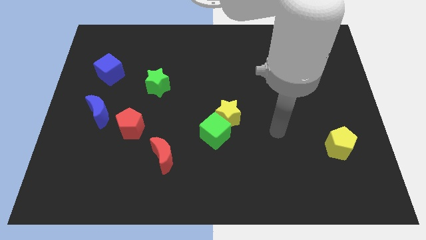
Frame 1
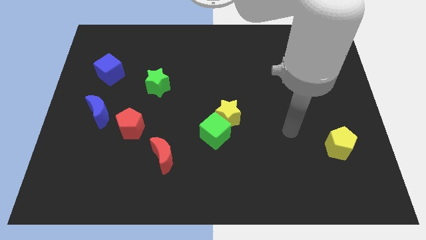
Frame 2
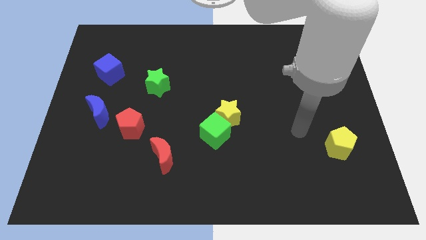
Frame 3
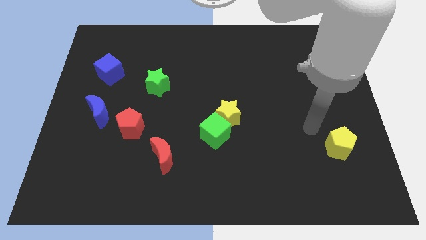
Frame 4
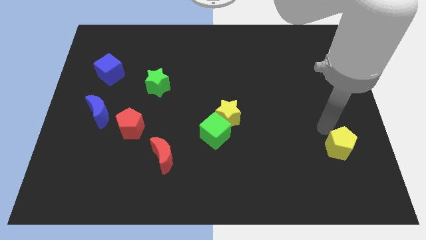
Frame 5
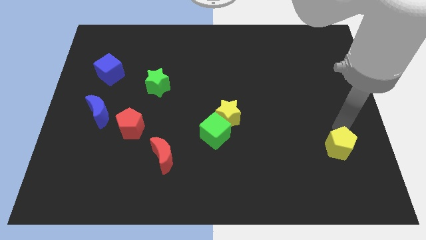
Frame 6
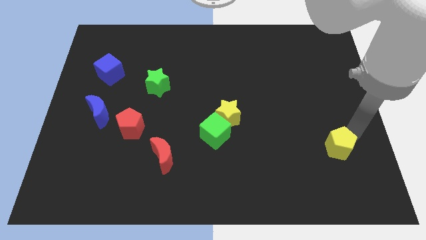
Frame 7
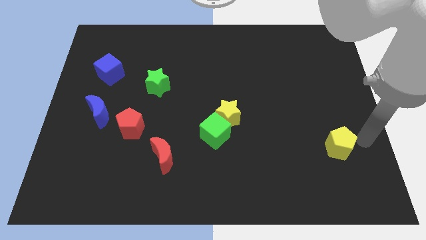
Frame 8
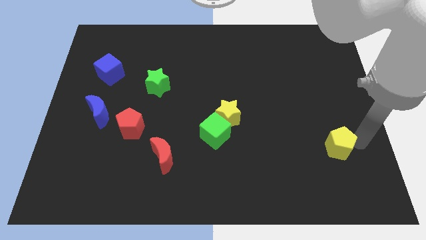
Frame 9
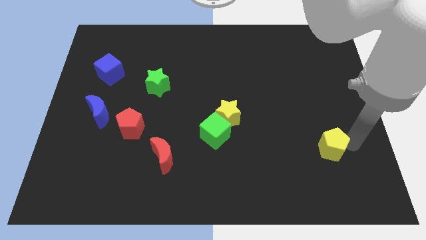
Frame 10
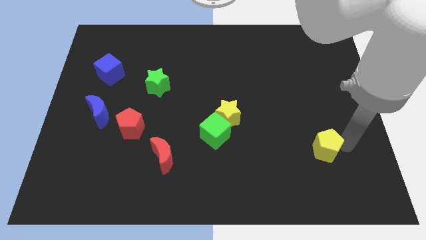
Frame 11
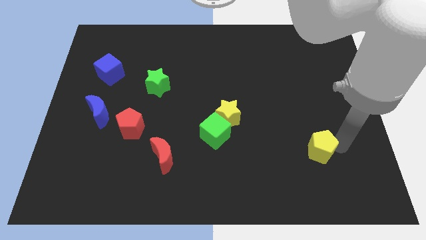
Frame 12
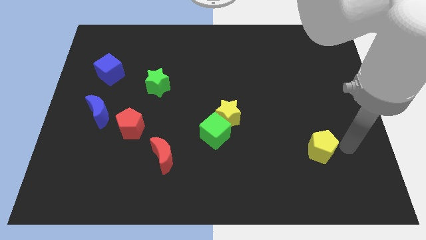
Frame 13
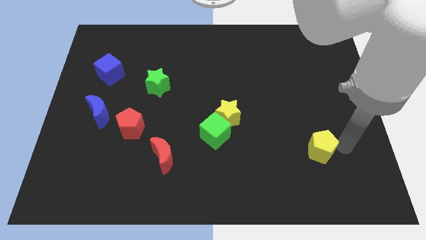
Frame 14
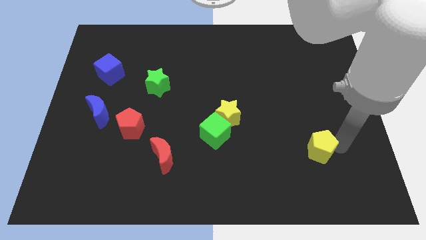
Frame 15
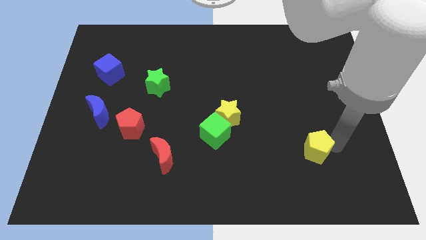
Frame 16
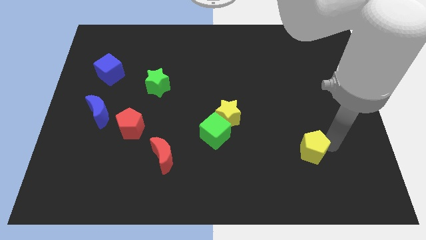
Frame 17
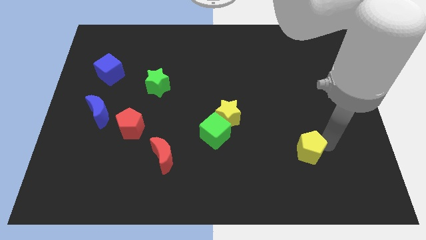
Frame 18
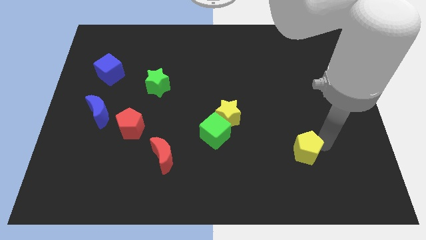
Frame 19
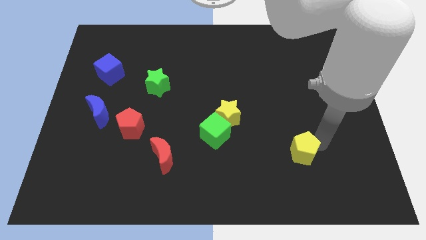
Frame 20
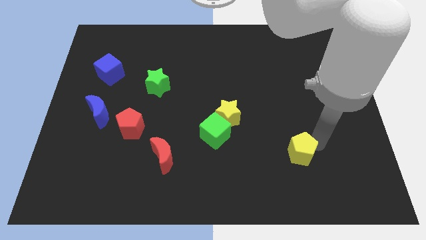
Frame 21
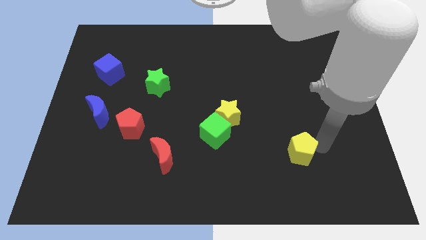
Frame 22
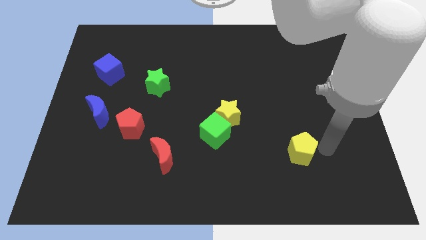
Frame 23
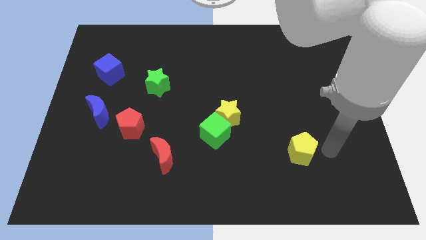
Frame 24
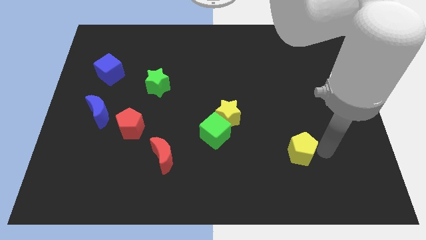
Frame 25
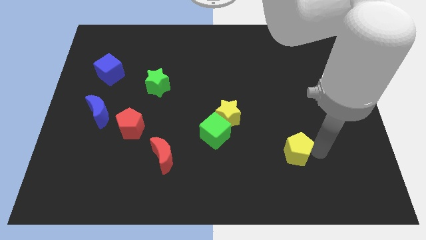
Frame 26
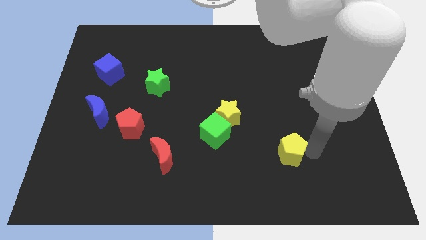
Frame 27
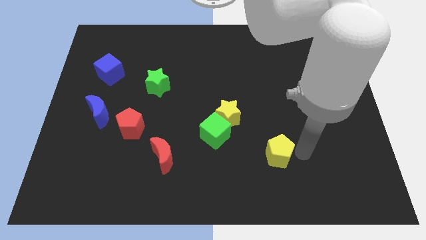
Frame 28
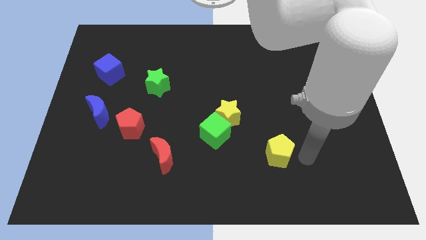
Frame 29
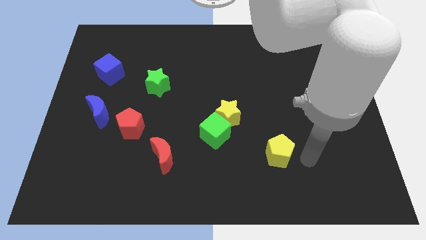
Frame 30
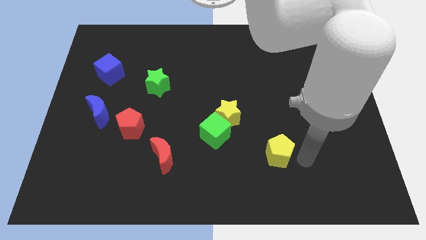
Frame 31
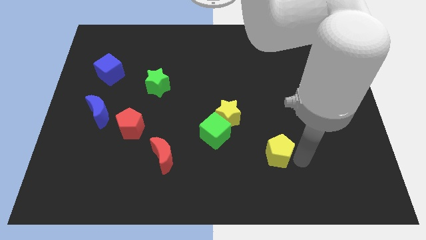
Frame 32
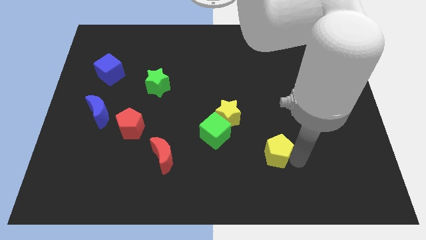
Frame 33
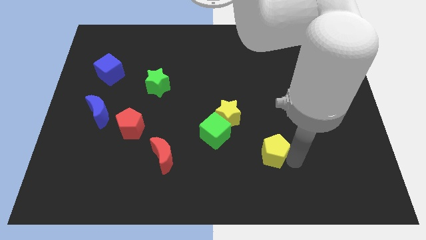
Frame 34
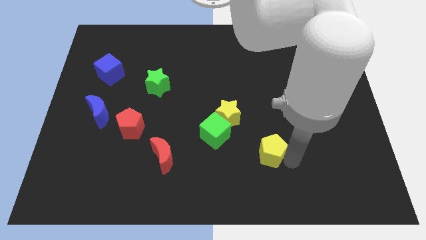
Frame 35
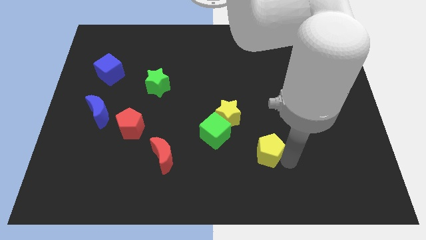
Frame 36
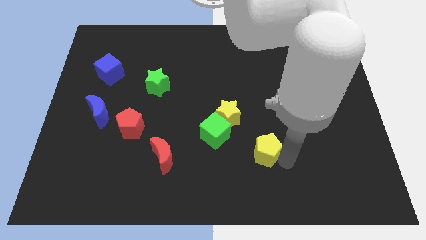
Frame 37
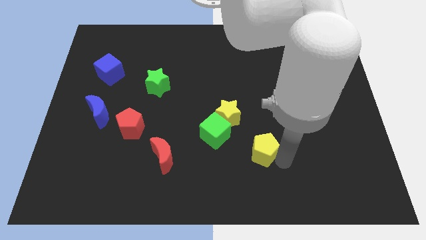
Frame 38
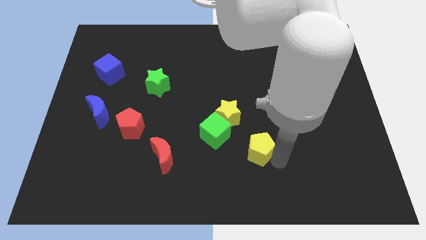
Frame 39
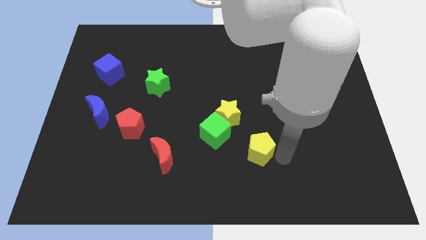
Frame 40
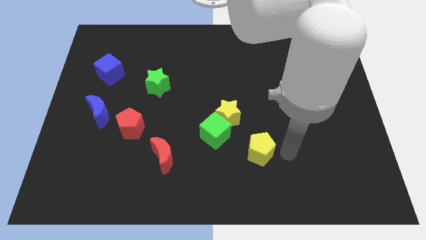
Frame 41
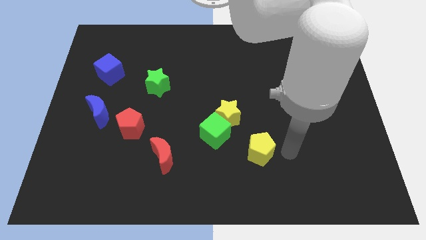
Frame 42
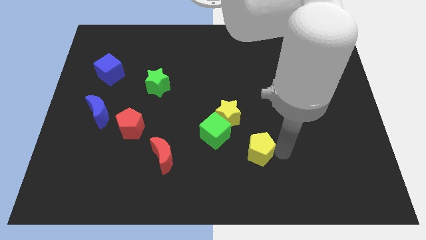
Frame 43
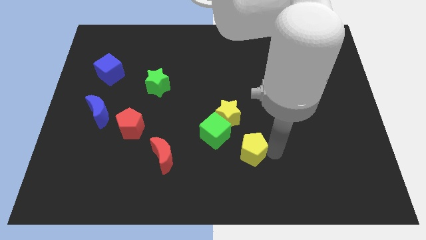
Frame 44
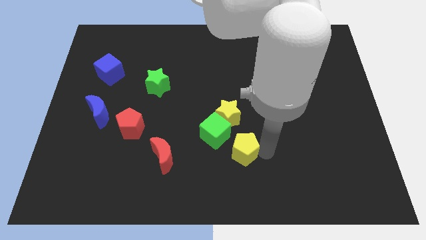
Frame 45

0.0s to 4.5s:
push the yellow pentagon left

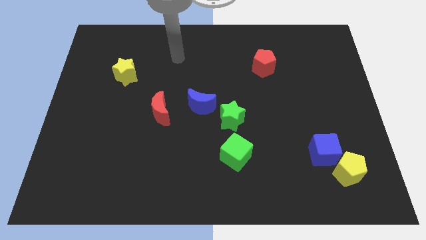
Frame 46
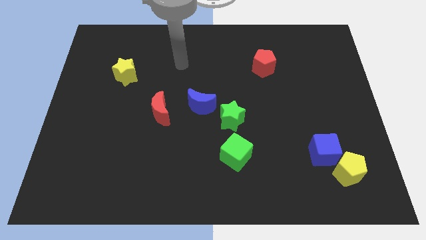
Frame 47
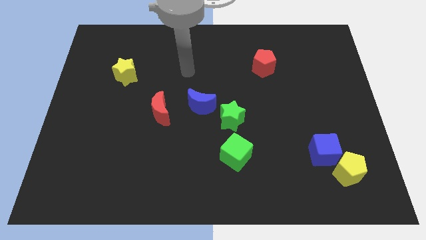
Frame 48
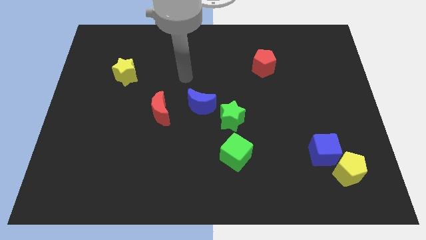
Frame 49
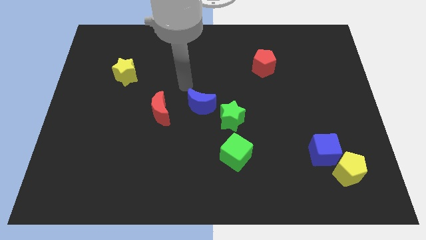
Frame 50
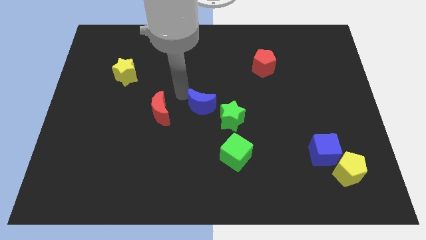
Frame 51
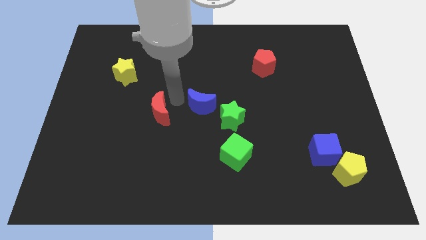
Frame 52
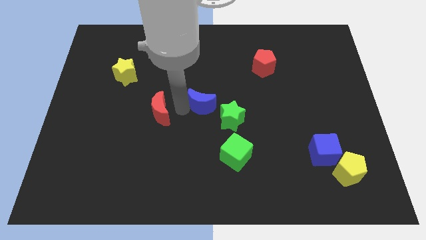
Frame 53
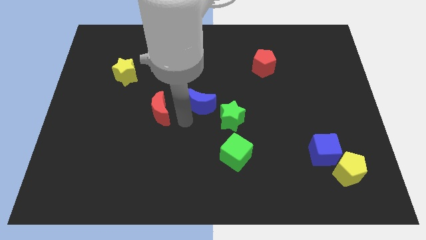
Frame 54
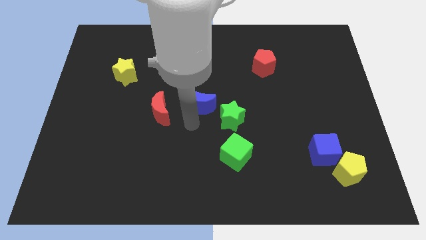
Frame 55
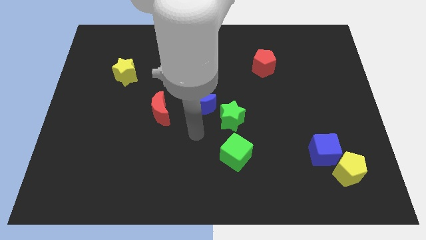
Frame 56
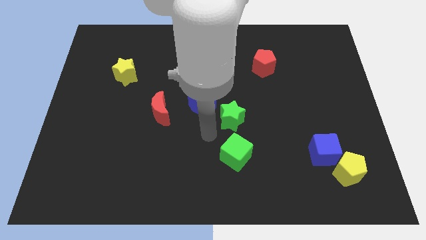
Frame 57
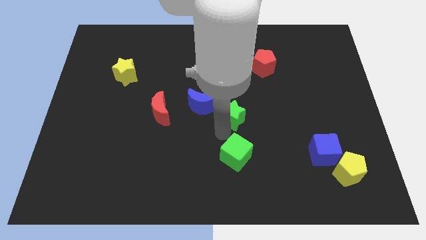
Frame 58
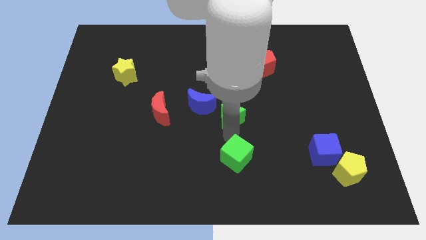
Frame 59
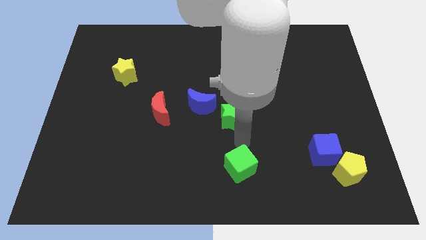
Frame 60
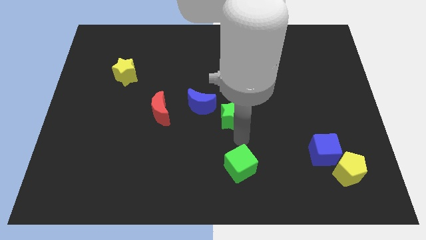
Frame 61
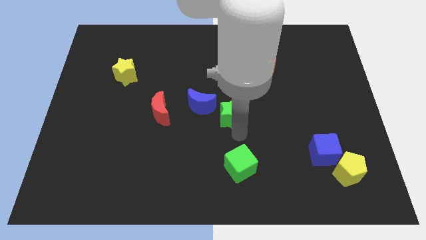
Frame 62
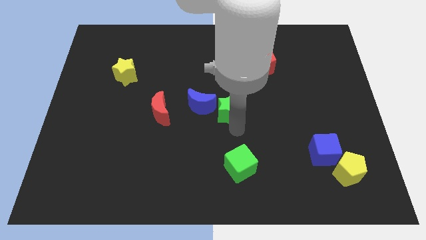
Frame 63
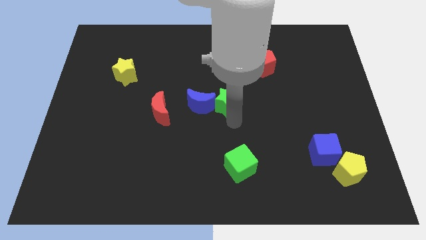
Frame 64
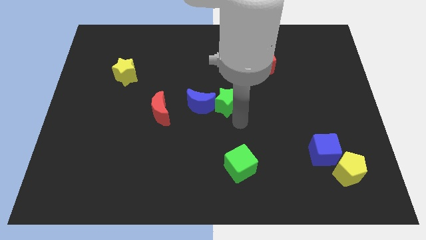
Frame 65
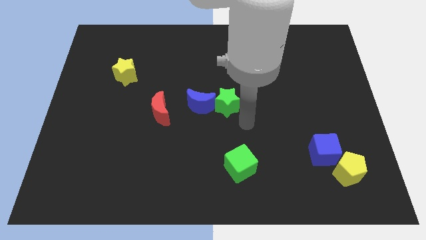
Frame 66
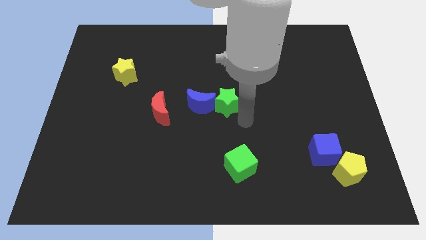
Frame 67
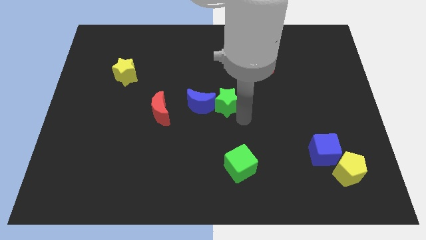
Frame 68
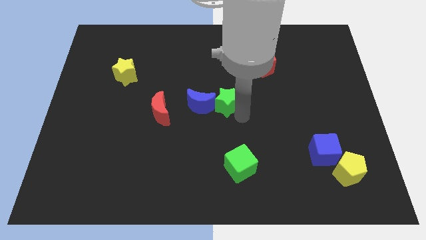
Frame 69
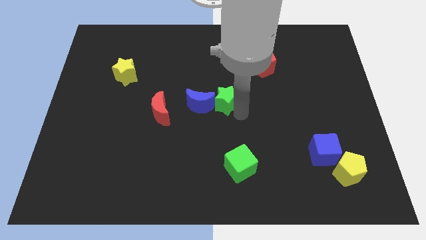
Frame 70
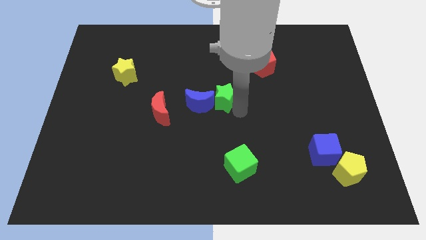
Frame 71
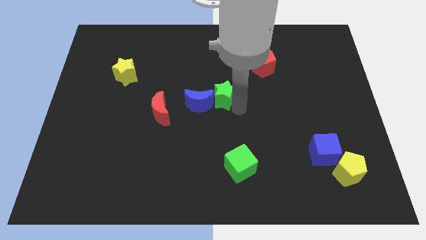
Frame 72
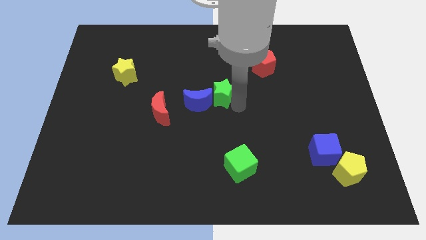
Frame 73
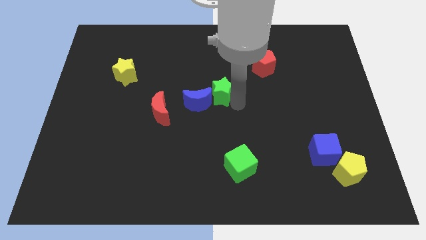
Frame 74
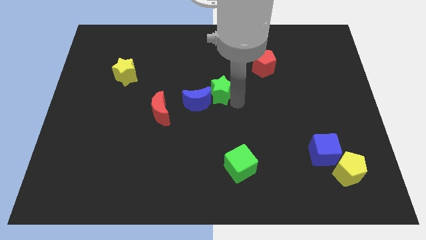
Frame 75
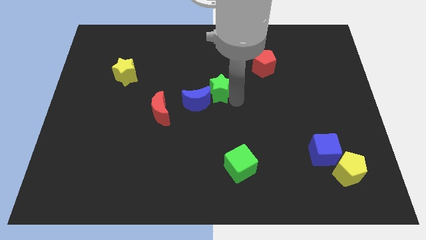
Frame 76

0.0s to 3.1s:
move the green star slightly diagonally up and left

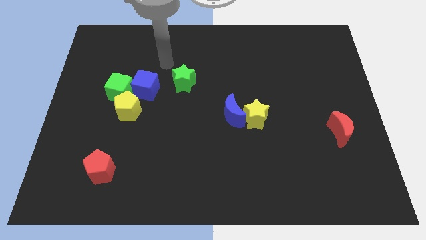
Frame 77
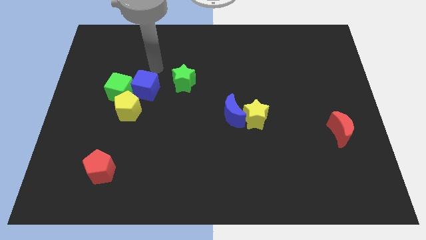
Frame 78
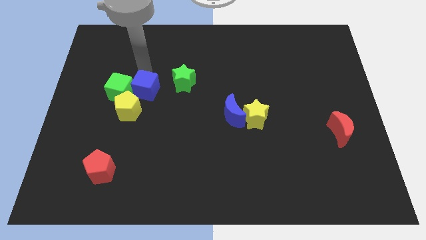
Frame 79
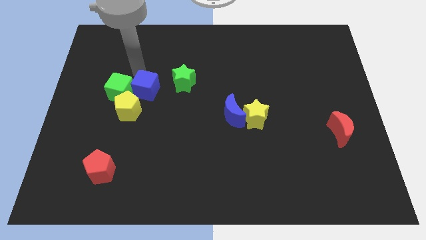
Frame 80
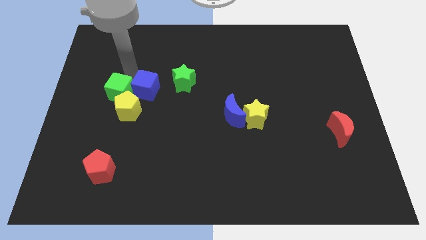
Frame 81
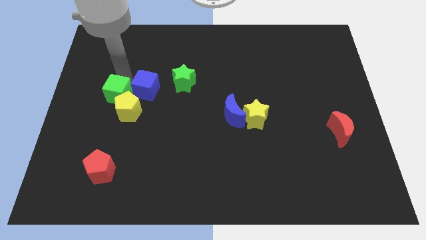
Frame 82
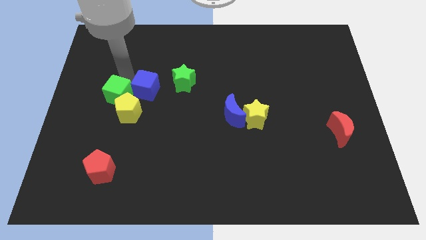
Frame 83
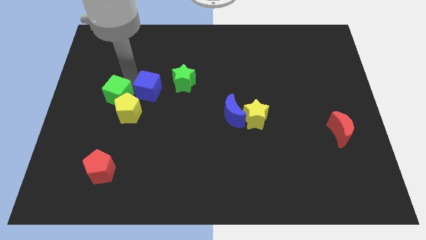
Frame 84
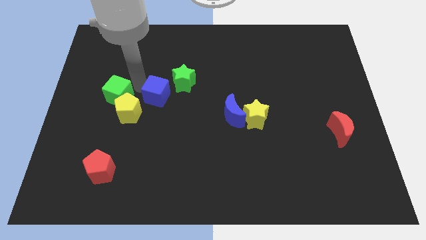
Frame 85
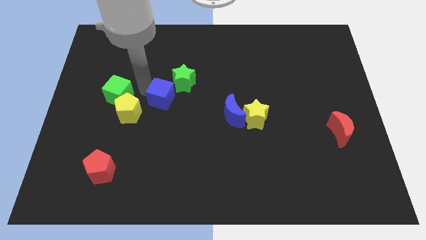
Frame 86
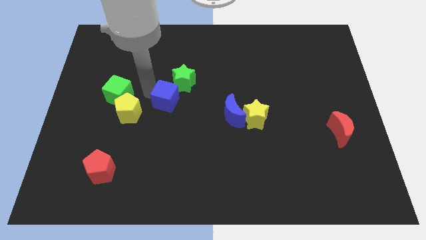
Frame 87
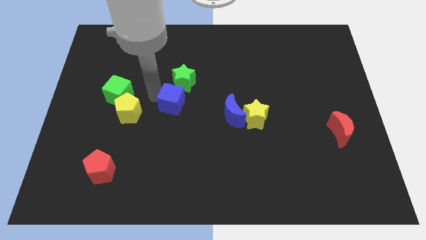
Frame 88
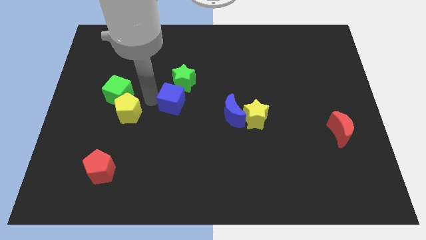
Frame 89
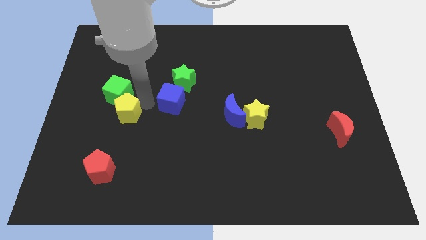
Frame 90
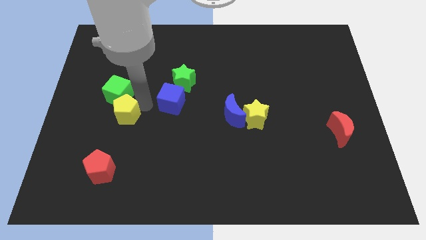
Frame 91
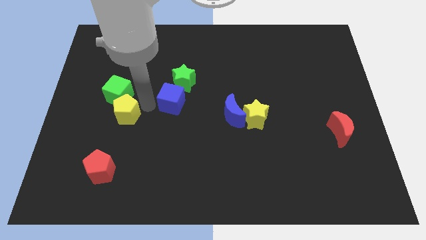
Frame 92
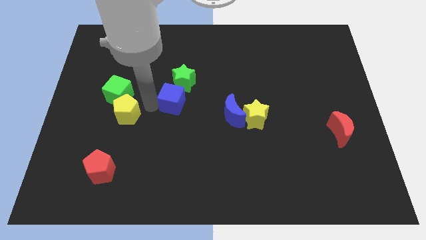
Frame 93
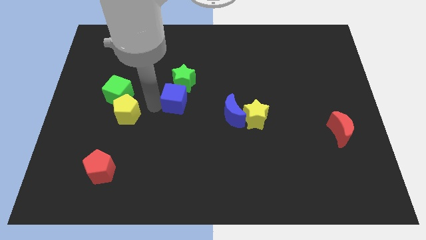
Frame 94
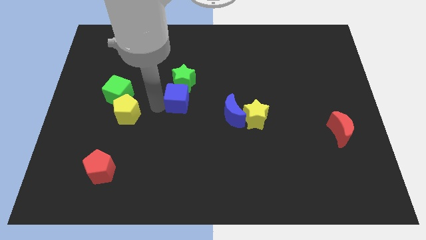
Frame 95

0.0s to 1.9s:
slide the blue cube to the right slightly
